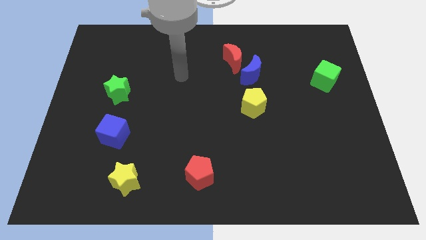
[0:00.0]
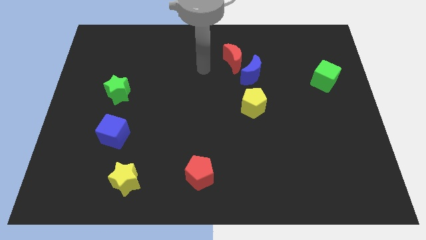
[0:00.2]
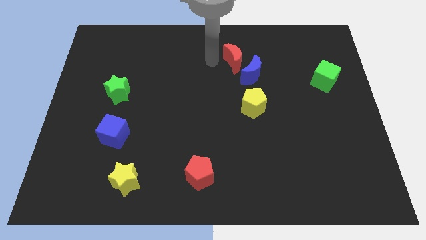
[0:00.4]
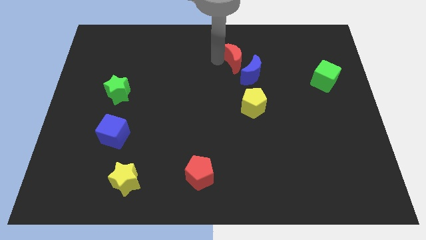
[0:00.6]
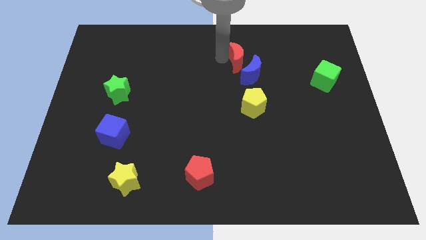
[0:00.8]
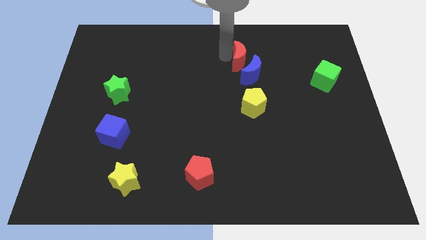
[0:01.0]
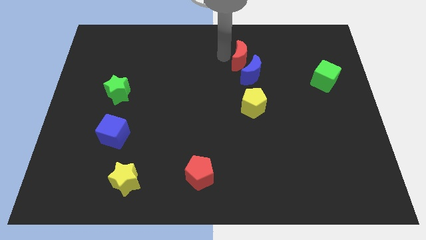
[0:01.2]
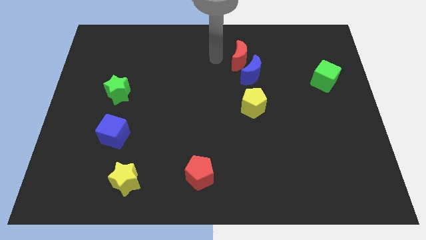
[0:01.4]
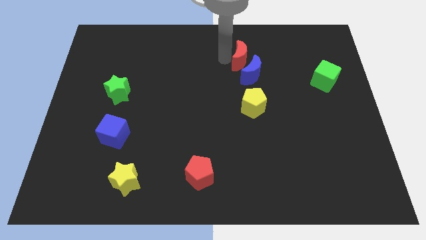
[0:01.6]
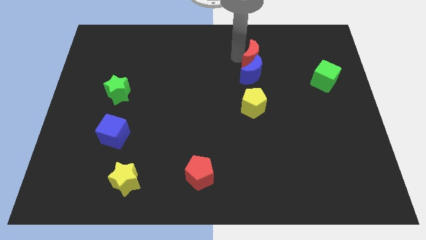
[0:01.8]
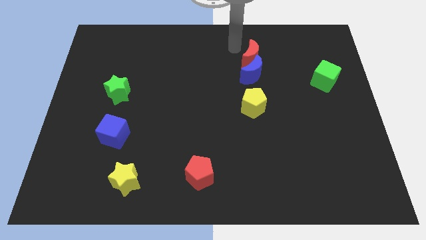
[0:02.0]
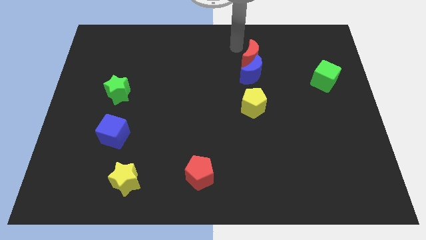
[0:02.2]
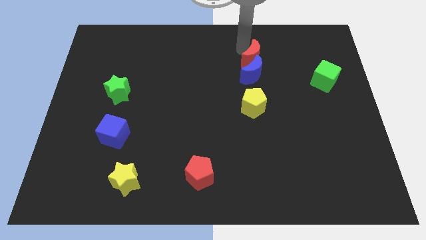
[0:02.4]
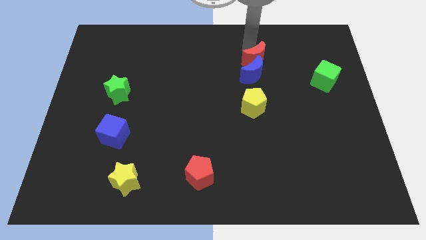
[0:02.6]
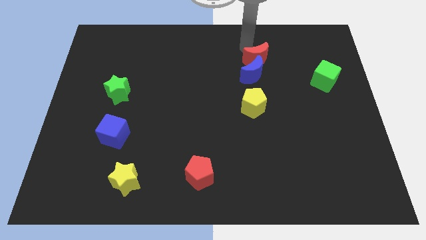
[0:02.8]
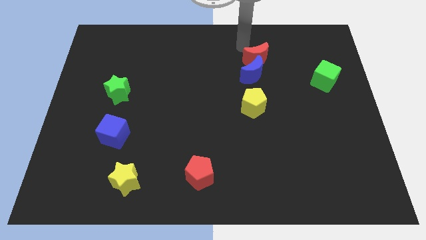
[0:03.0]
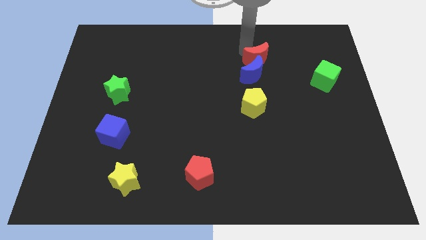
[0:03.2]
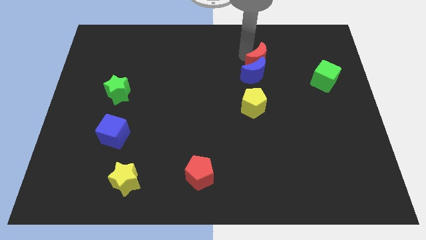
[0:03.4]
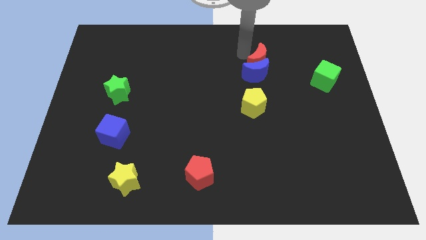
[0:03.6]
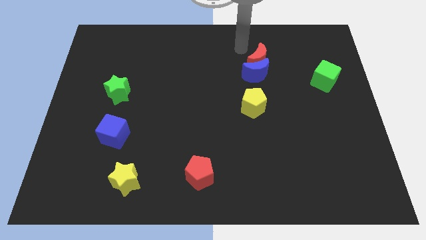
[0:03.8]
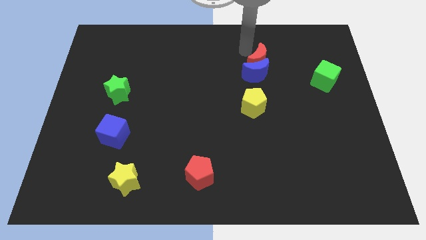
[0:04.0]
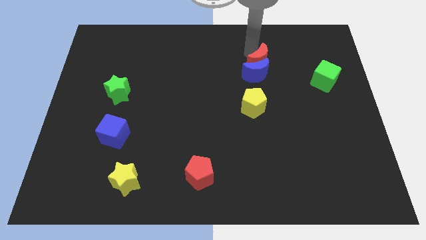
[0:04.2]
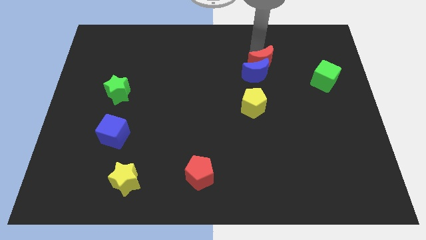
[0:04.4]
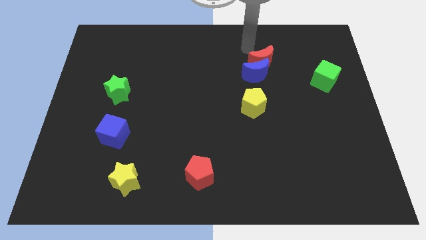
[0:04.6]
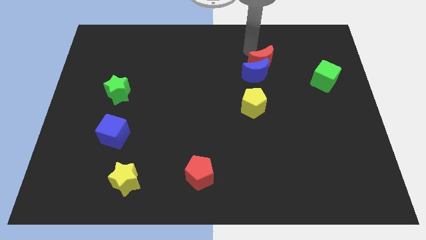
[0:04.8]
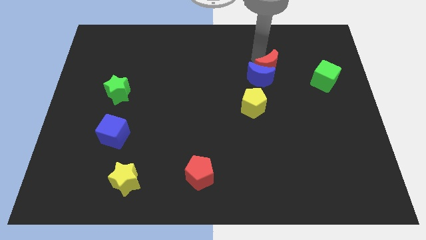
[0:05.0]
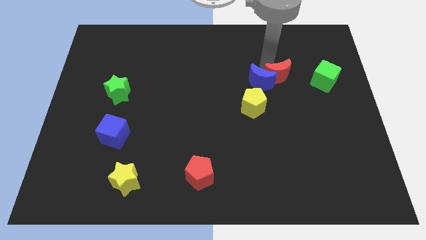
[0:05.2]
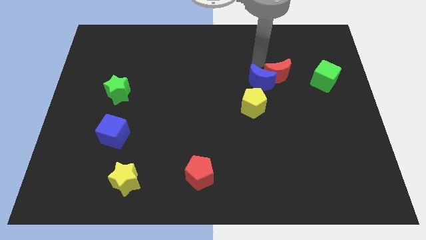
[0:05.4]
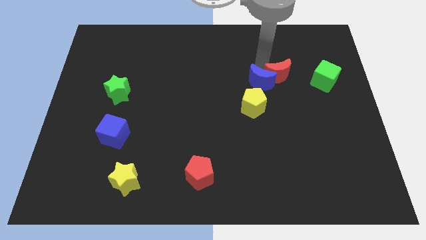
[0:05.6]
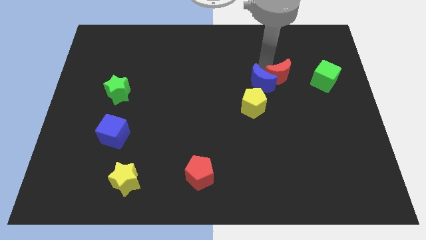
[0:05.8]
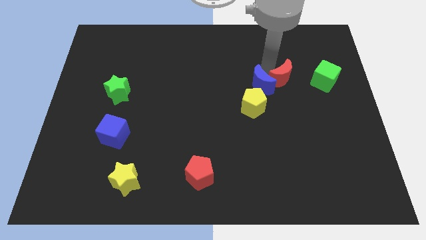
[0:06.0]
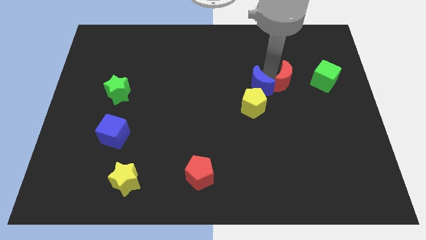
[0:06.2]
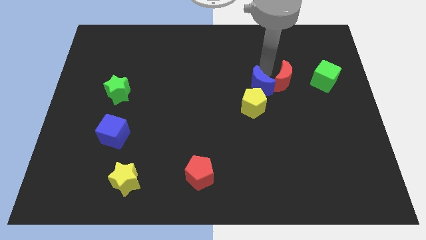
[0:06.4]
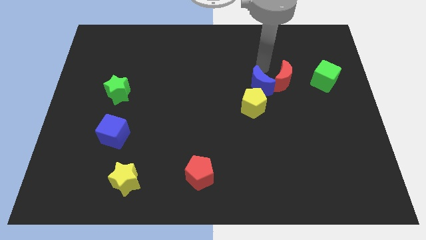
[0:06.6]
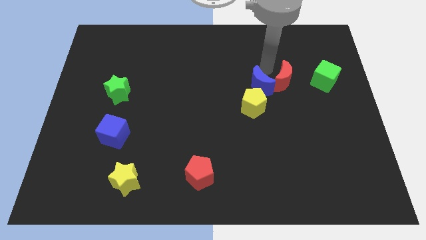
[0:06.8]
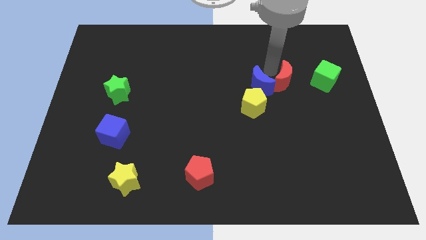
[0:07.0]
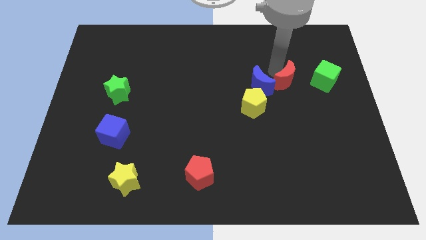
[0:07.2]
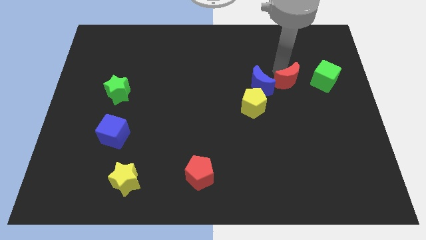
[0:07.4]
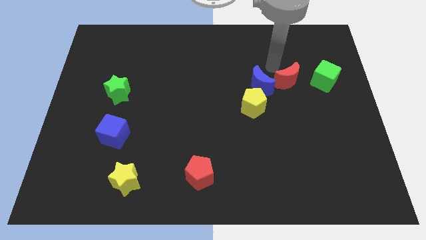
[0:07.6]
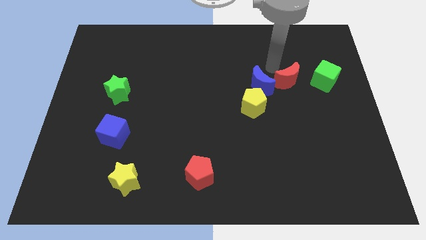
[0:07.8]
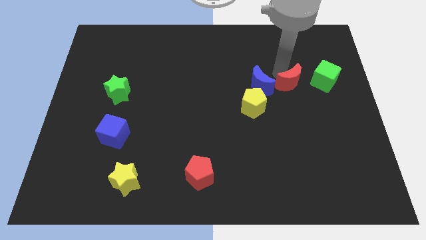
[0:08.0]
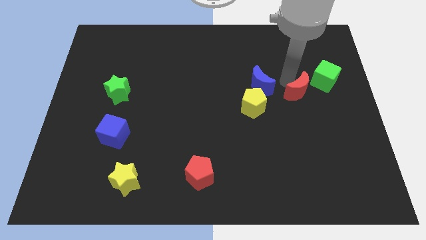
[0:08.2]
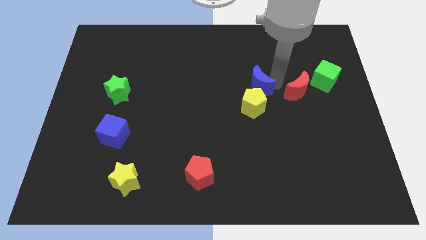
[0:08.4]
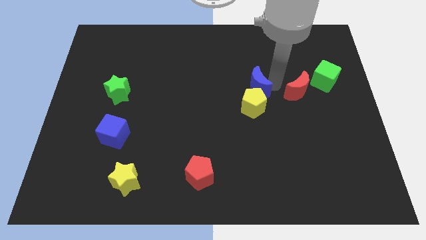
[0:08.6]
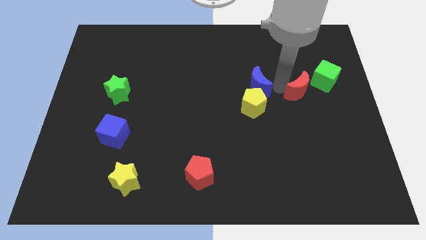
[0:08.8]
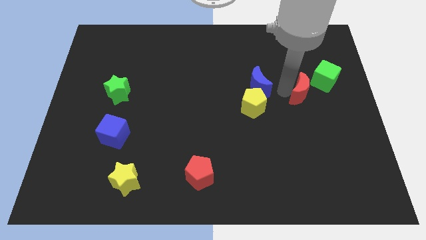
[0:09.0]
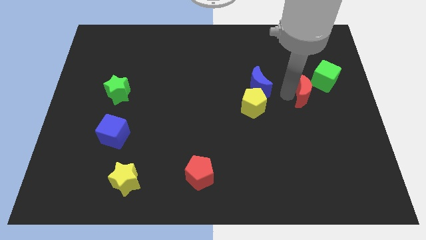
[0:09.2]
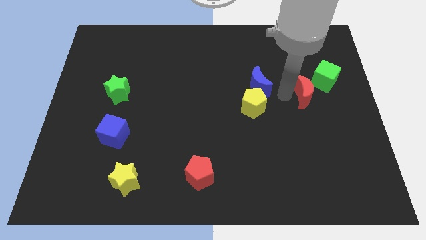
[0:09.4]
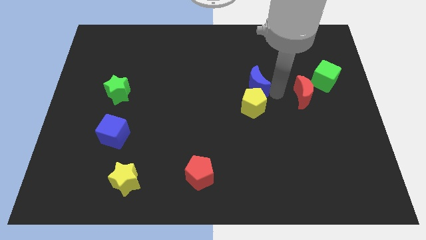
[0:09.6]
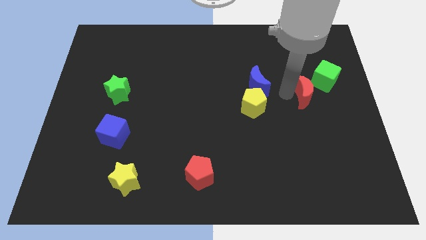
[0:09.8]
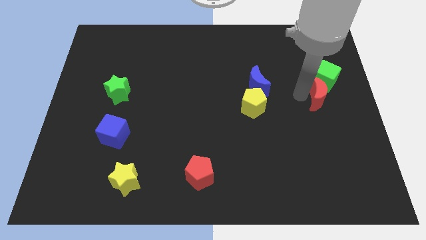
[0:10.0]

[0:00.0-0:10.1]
slide the red moon to the center right

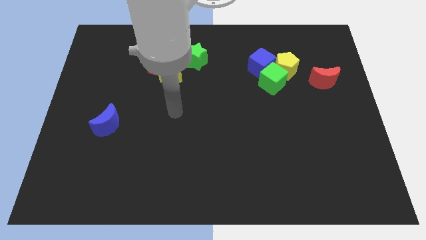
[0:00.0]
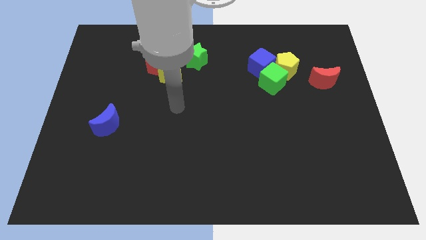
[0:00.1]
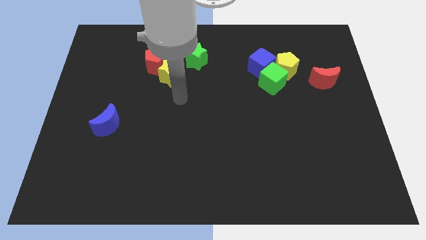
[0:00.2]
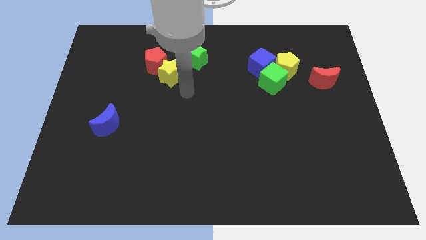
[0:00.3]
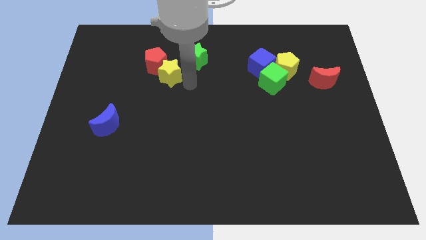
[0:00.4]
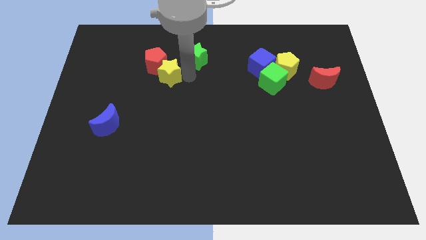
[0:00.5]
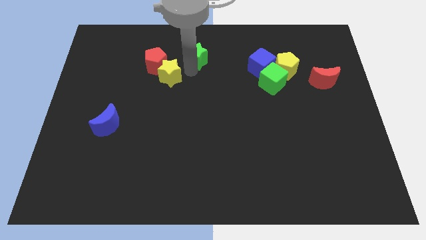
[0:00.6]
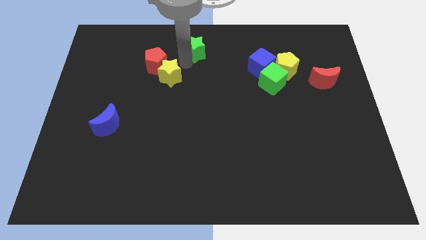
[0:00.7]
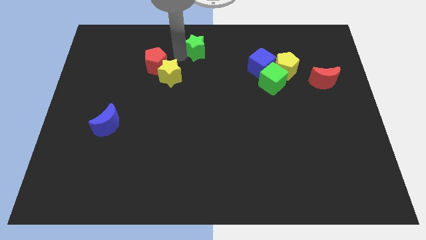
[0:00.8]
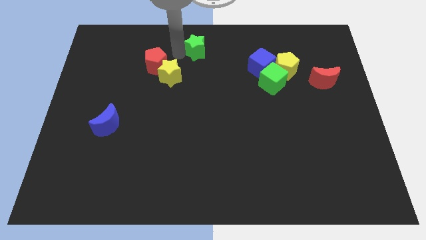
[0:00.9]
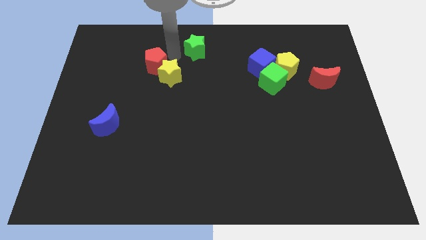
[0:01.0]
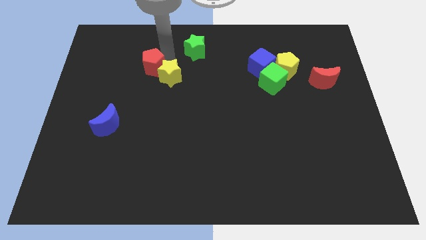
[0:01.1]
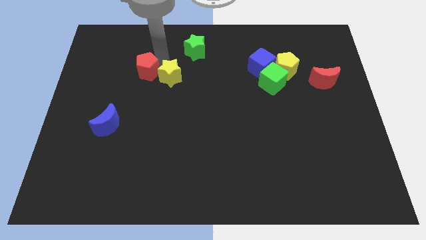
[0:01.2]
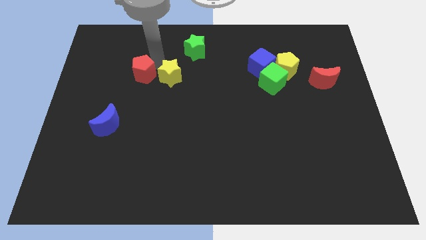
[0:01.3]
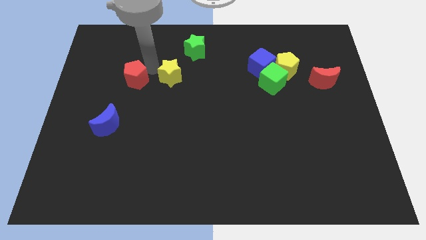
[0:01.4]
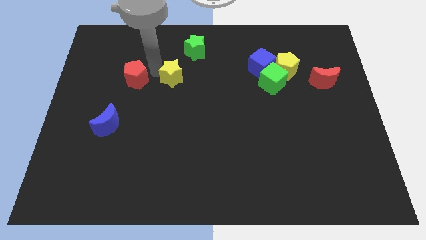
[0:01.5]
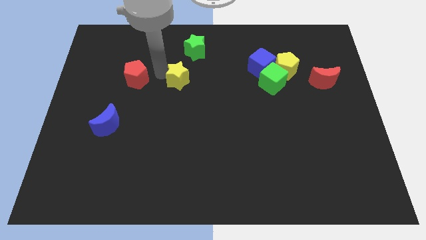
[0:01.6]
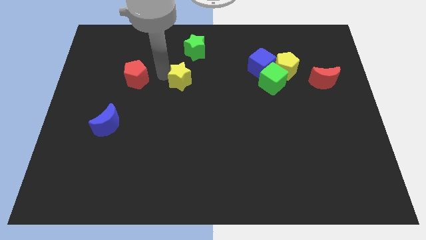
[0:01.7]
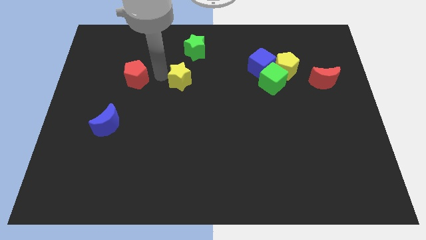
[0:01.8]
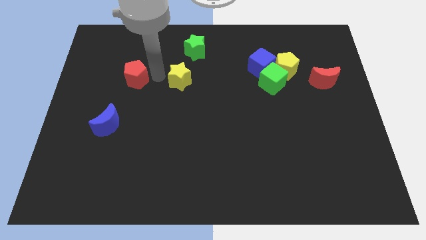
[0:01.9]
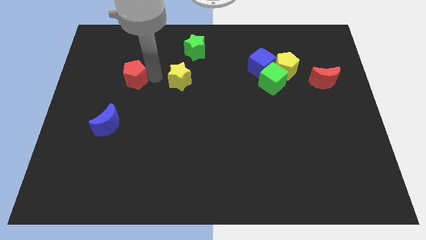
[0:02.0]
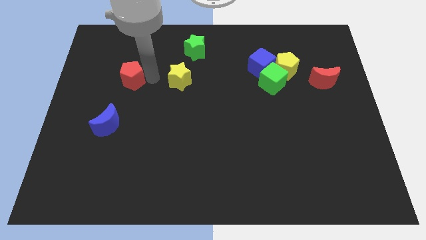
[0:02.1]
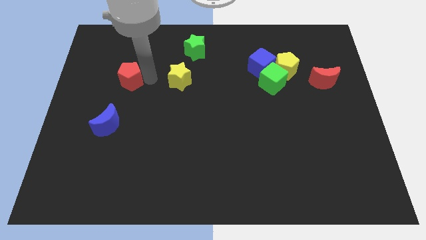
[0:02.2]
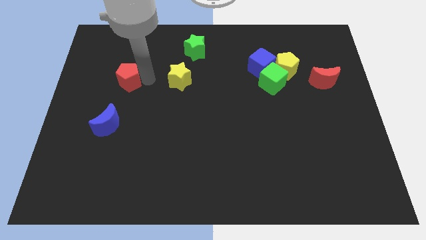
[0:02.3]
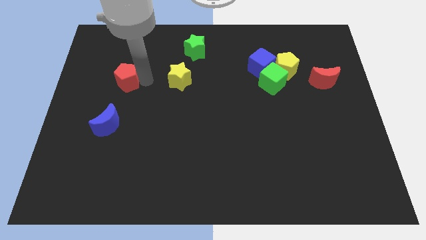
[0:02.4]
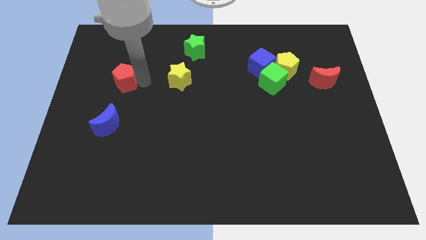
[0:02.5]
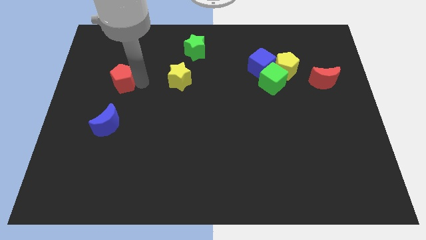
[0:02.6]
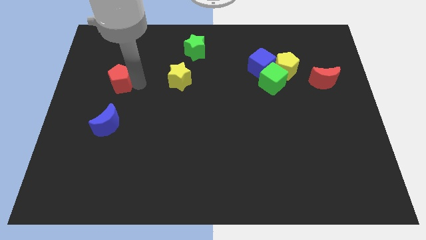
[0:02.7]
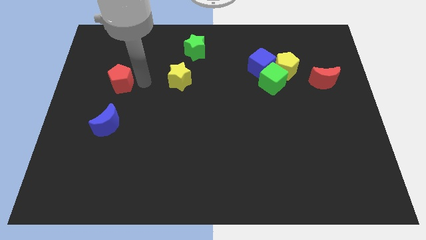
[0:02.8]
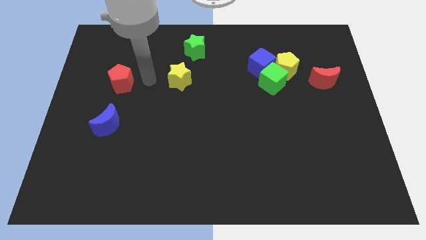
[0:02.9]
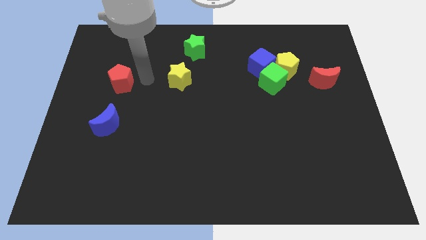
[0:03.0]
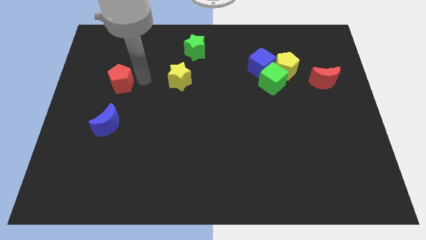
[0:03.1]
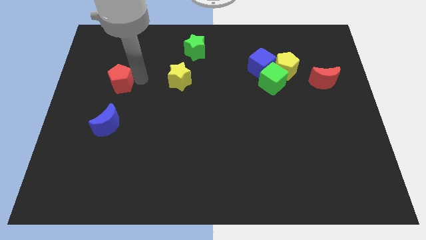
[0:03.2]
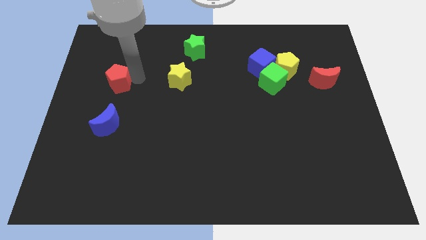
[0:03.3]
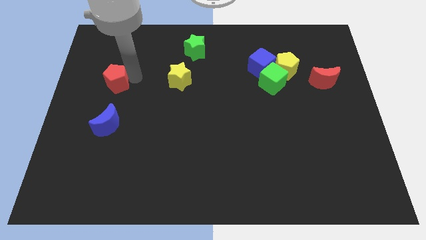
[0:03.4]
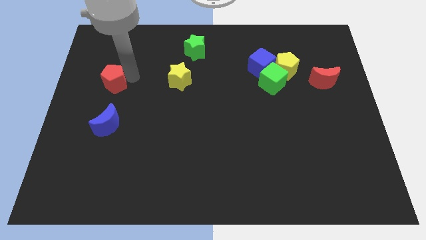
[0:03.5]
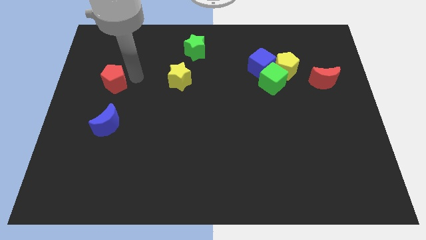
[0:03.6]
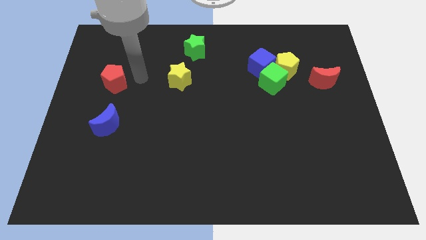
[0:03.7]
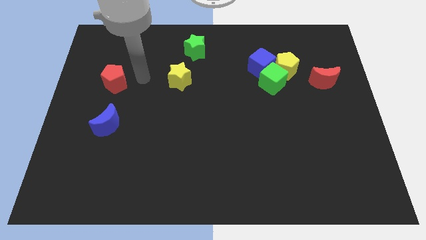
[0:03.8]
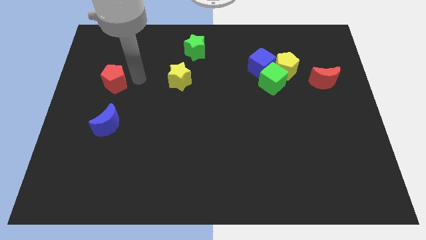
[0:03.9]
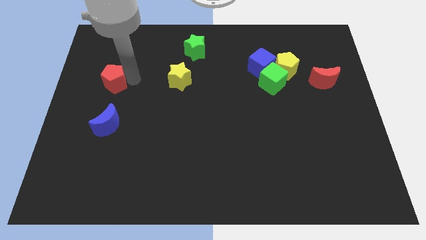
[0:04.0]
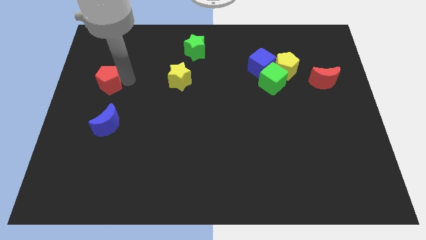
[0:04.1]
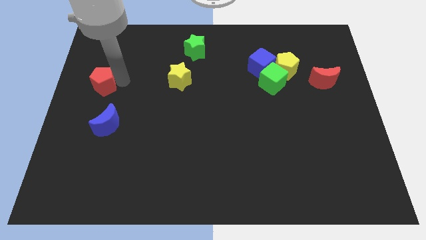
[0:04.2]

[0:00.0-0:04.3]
slide the red pentagon to the left side
